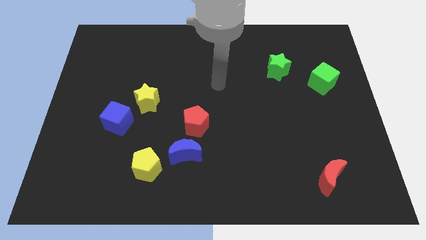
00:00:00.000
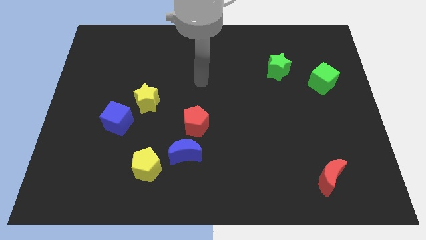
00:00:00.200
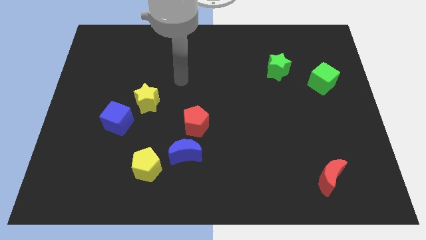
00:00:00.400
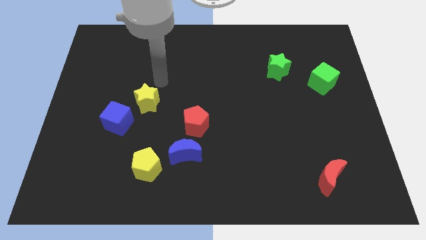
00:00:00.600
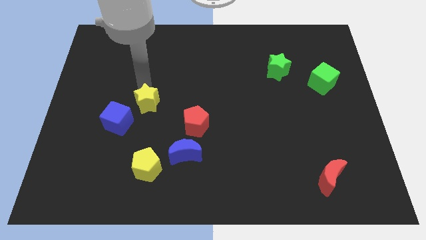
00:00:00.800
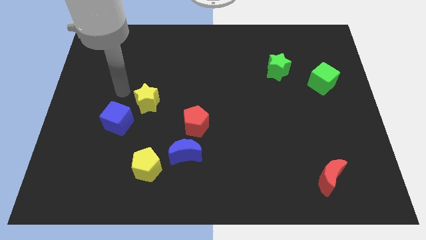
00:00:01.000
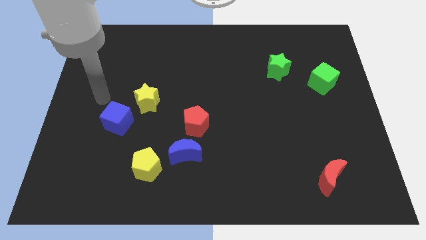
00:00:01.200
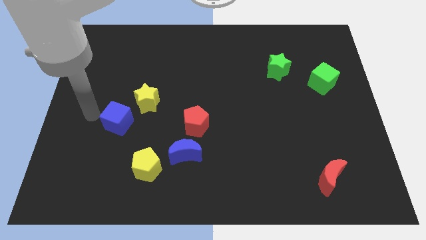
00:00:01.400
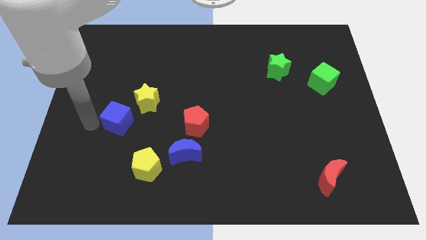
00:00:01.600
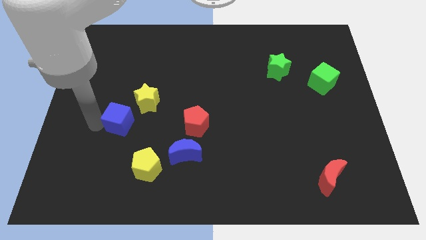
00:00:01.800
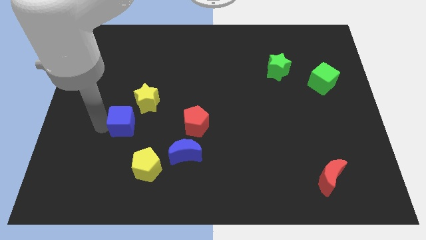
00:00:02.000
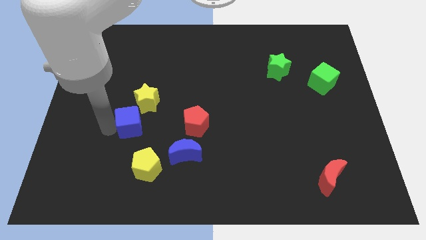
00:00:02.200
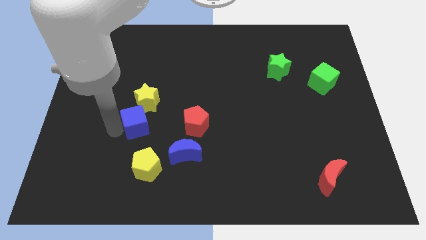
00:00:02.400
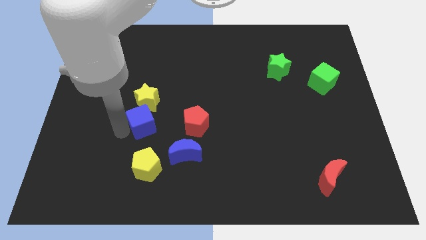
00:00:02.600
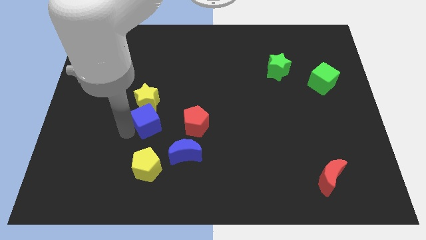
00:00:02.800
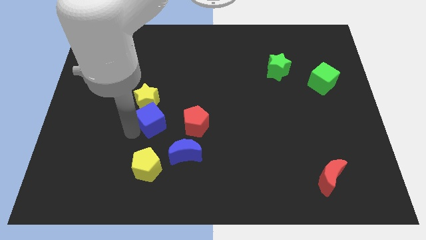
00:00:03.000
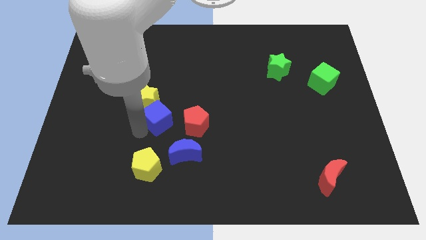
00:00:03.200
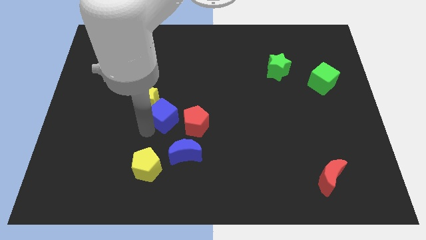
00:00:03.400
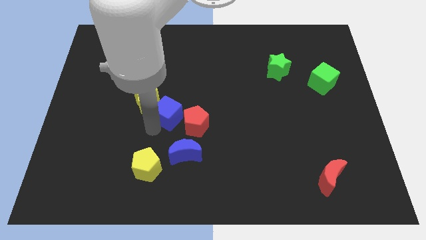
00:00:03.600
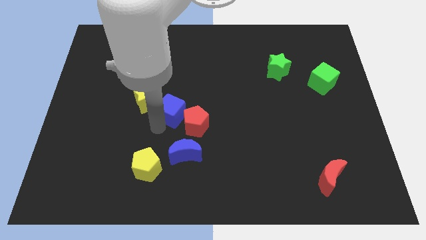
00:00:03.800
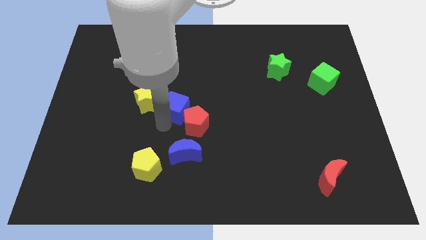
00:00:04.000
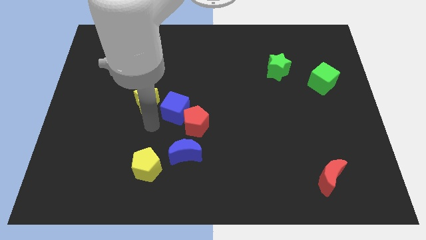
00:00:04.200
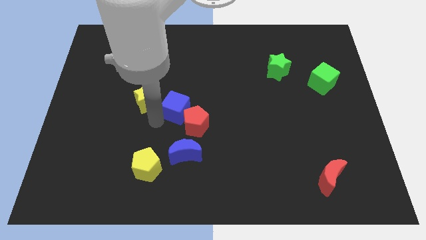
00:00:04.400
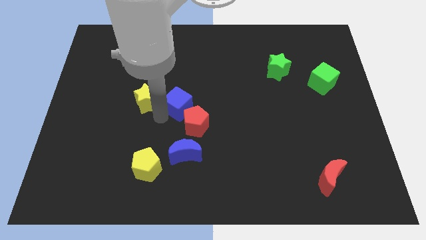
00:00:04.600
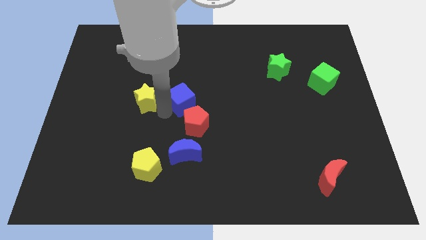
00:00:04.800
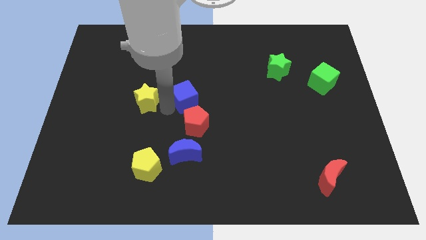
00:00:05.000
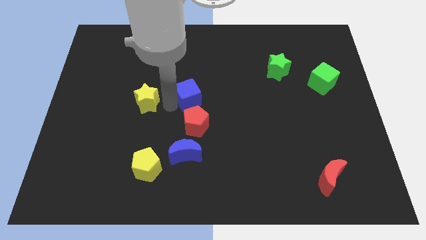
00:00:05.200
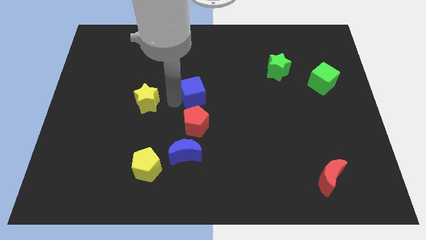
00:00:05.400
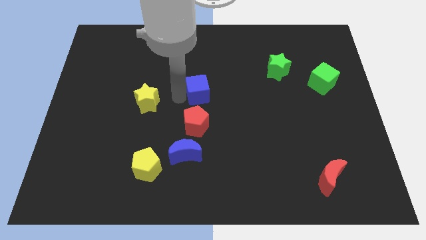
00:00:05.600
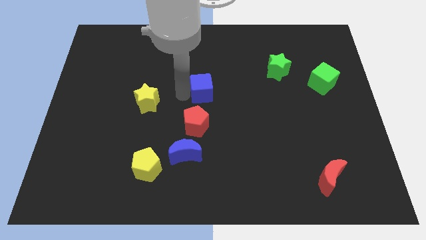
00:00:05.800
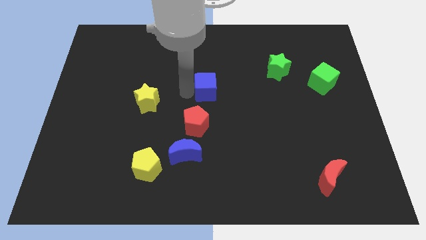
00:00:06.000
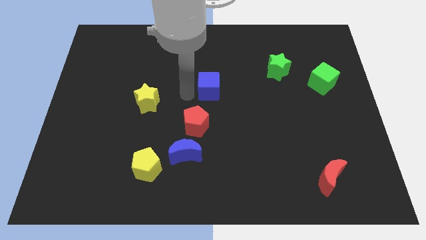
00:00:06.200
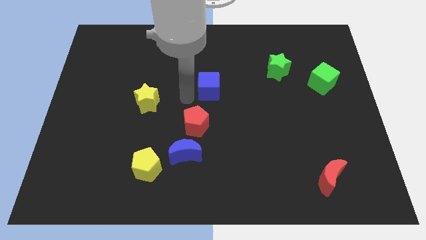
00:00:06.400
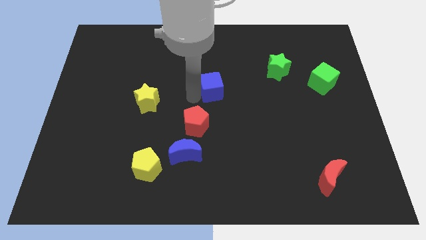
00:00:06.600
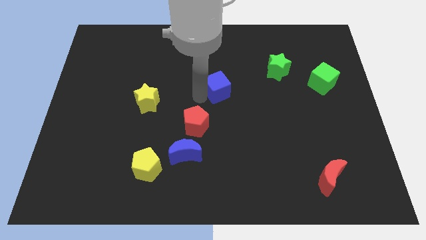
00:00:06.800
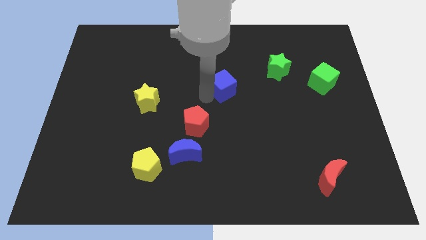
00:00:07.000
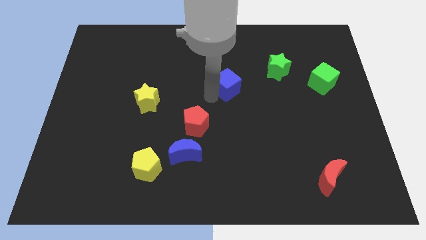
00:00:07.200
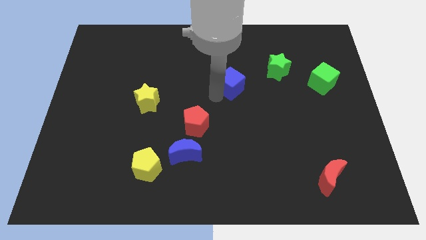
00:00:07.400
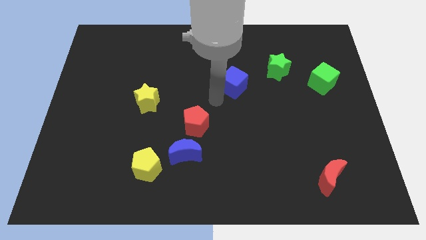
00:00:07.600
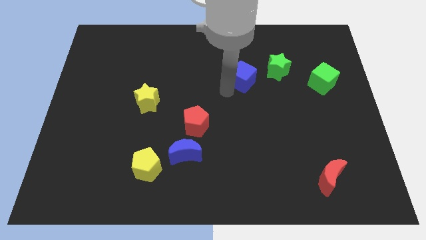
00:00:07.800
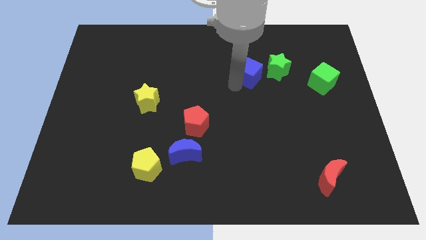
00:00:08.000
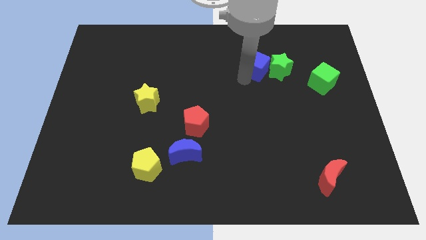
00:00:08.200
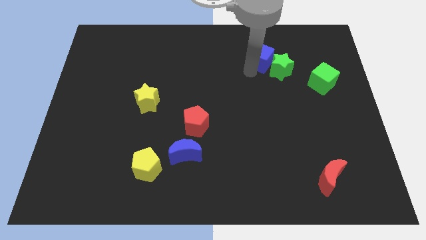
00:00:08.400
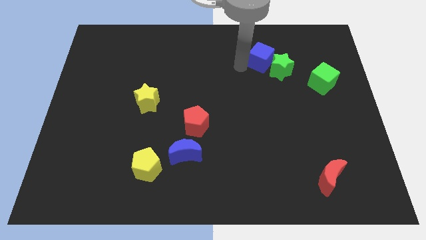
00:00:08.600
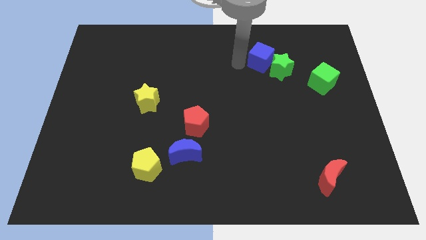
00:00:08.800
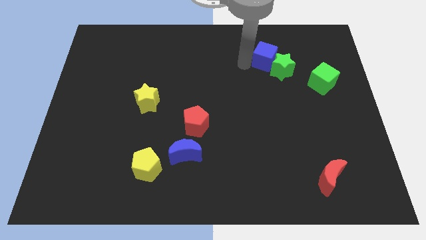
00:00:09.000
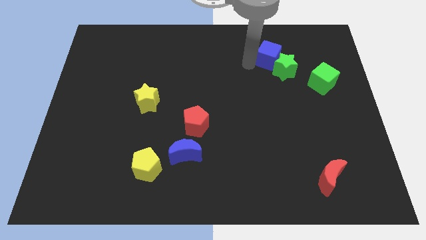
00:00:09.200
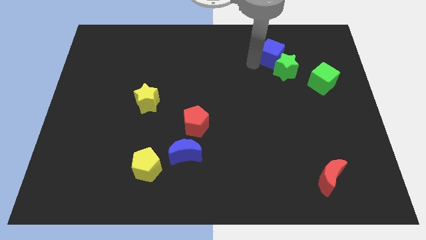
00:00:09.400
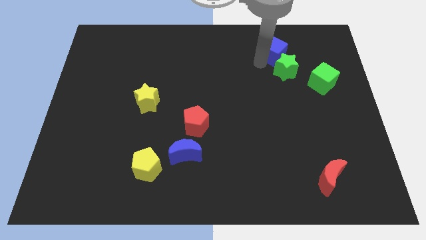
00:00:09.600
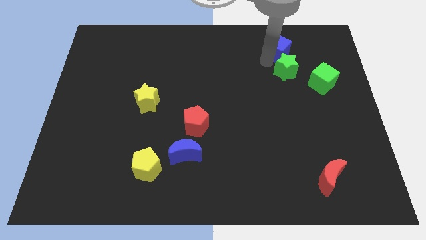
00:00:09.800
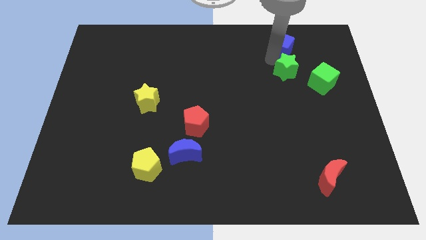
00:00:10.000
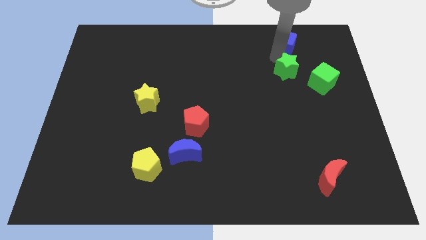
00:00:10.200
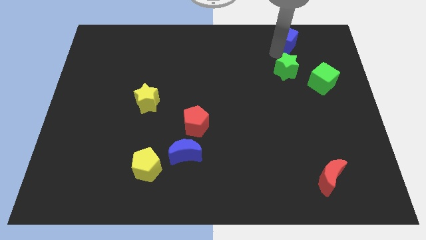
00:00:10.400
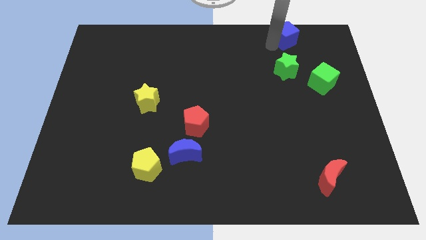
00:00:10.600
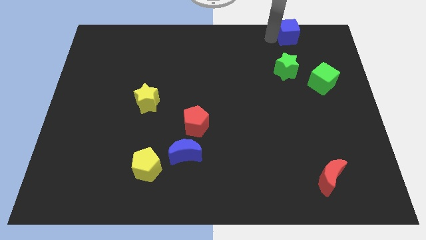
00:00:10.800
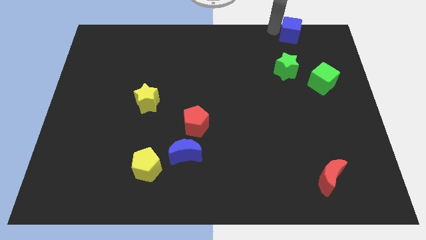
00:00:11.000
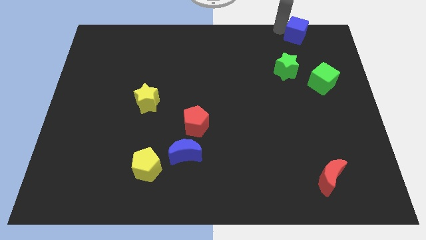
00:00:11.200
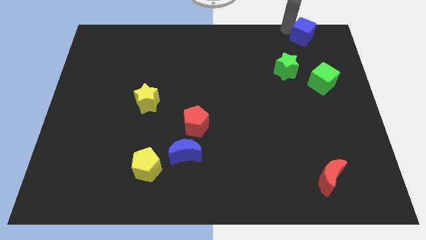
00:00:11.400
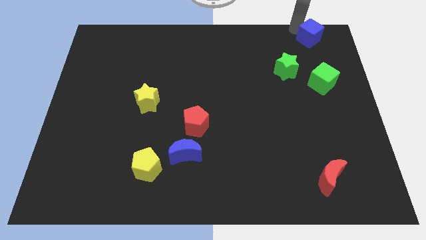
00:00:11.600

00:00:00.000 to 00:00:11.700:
slide the blue cube to the upper right corner

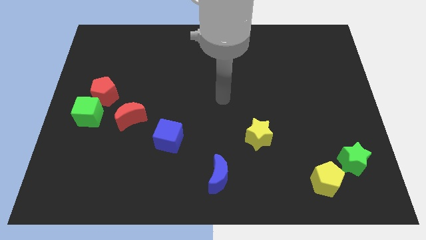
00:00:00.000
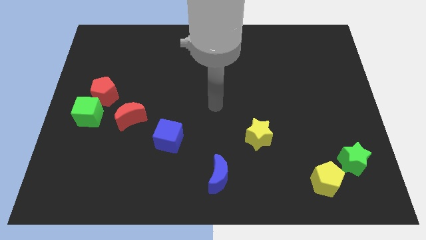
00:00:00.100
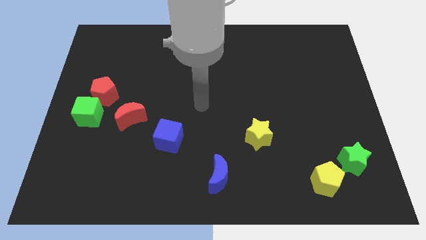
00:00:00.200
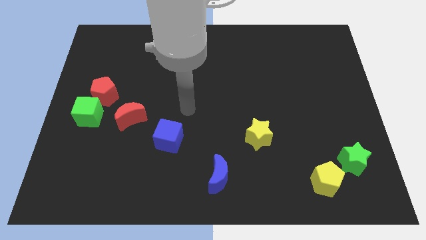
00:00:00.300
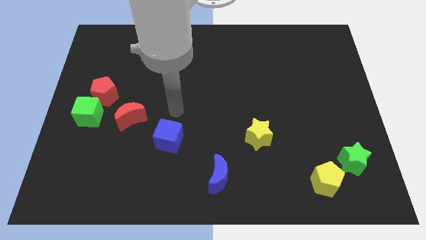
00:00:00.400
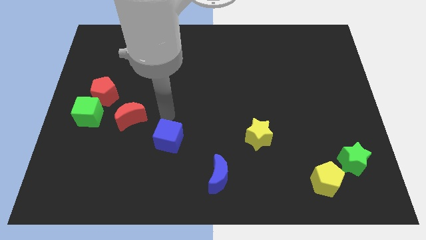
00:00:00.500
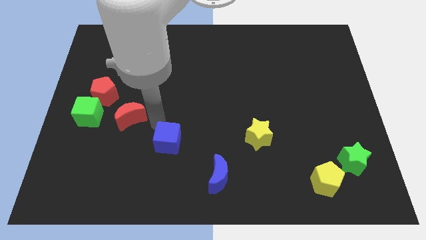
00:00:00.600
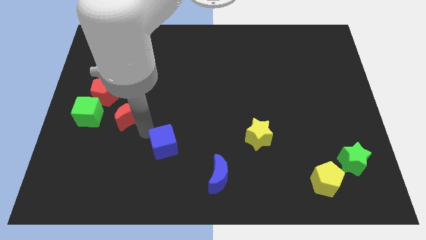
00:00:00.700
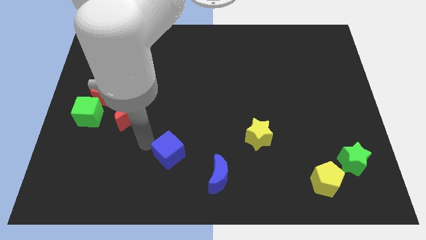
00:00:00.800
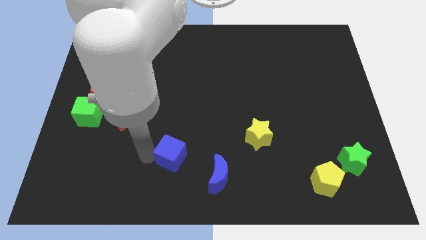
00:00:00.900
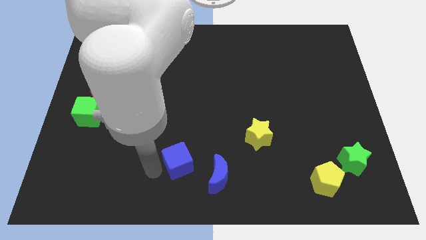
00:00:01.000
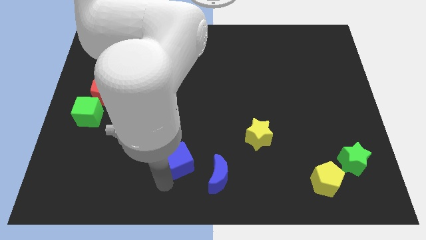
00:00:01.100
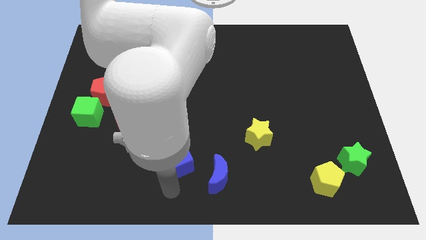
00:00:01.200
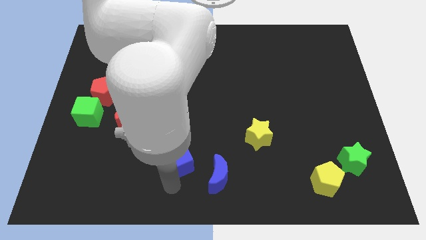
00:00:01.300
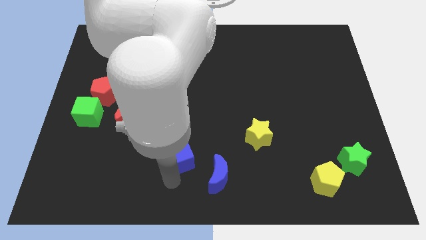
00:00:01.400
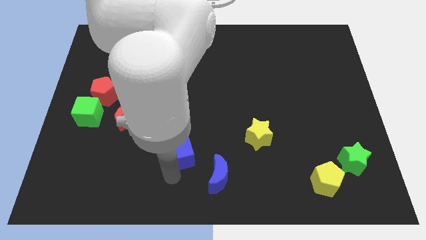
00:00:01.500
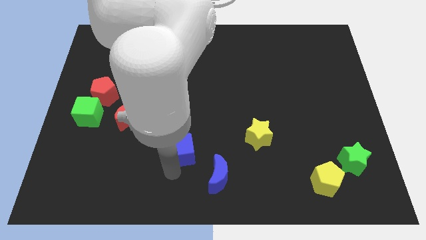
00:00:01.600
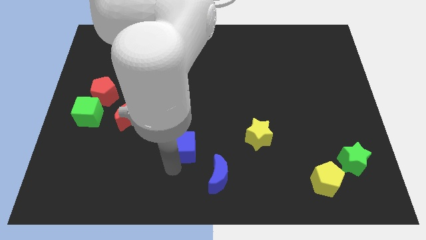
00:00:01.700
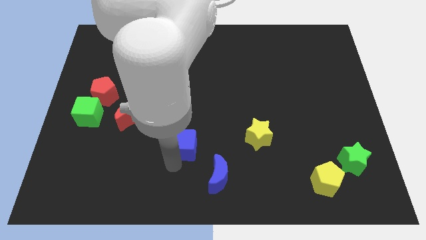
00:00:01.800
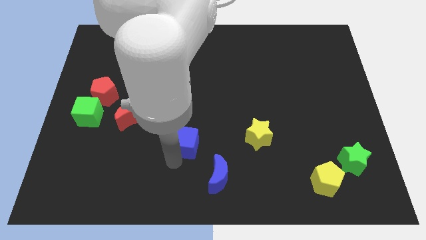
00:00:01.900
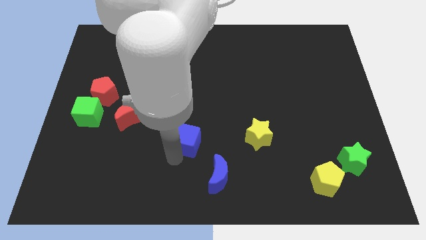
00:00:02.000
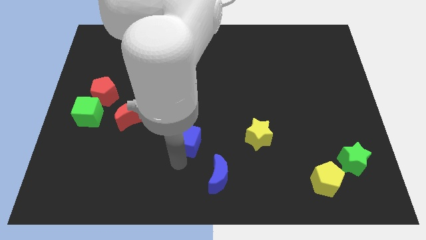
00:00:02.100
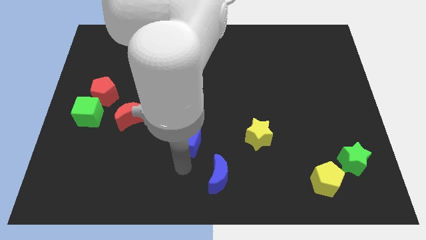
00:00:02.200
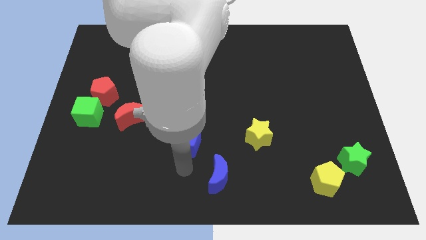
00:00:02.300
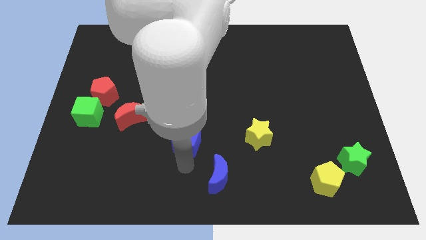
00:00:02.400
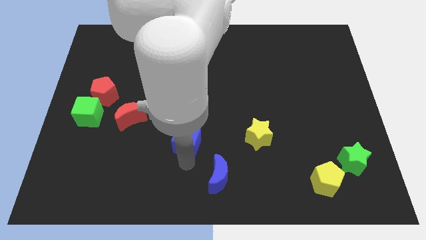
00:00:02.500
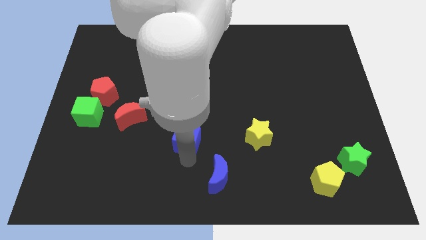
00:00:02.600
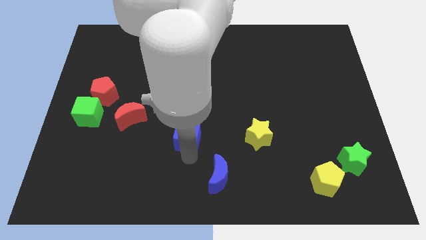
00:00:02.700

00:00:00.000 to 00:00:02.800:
slide the blue cube to the center
